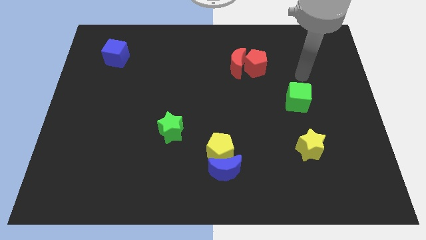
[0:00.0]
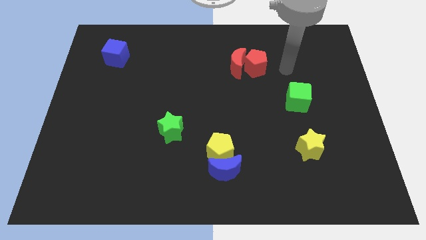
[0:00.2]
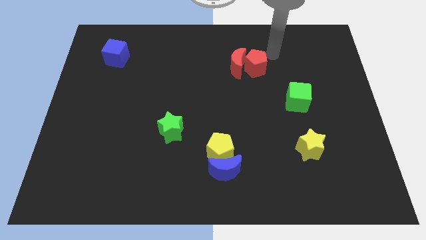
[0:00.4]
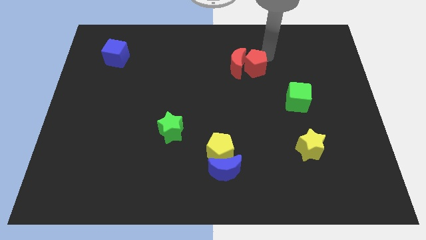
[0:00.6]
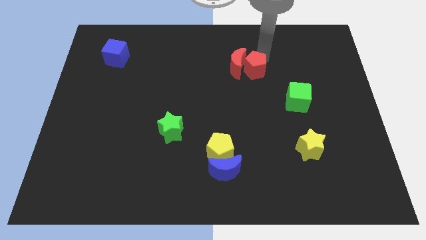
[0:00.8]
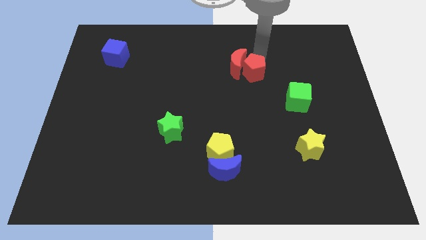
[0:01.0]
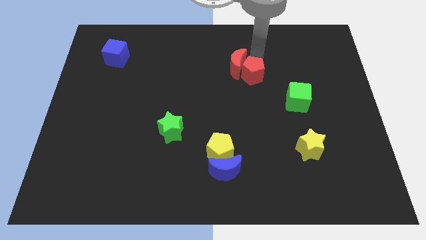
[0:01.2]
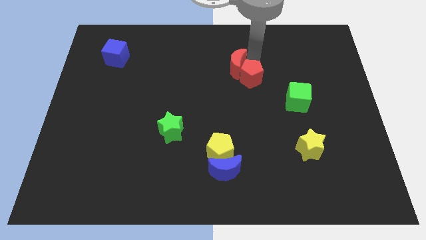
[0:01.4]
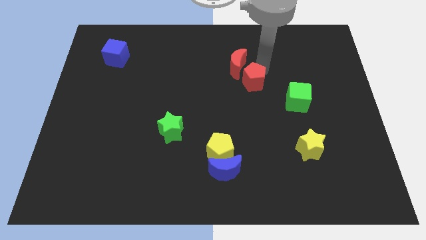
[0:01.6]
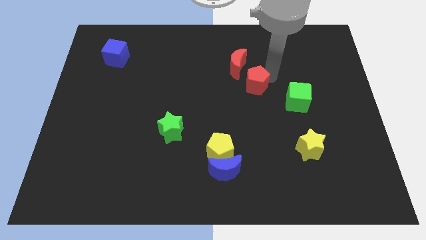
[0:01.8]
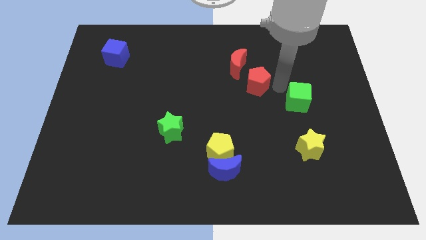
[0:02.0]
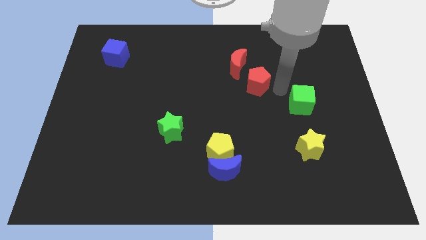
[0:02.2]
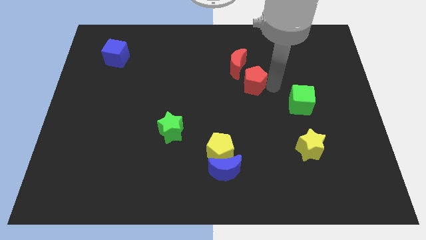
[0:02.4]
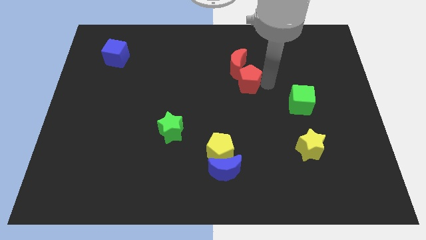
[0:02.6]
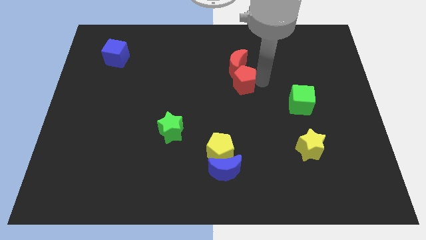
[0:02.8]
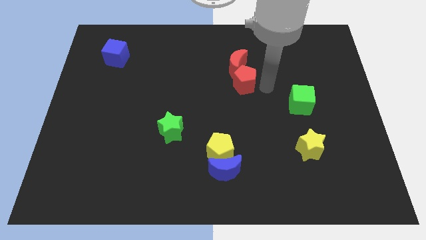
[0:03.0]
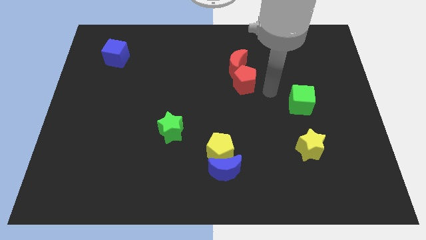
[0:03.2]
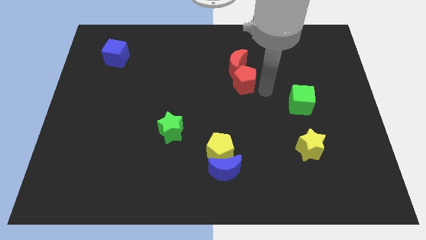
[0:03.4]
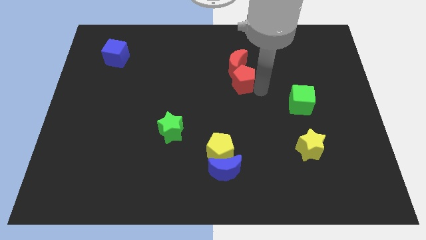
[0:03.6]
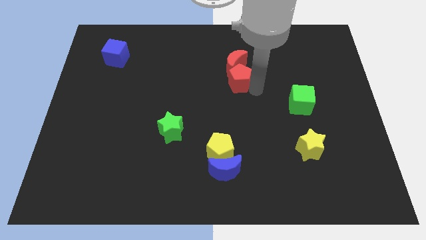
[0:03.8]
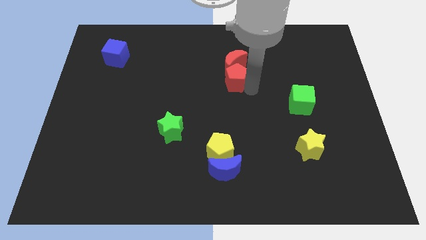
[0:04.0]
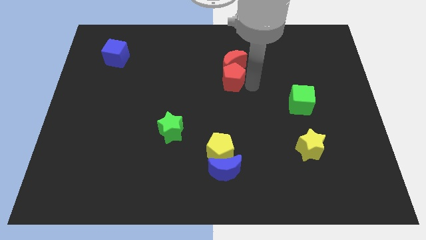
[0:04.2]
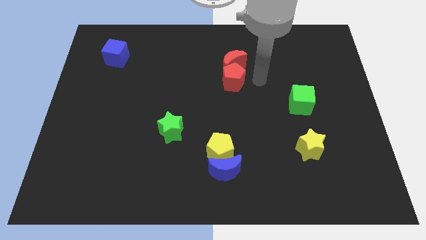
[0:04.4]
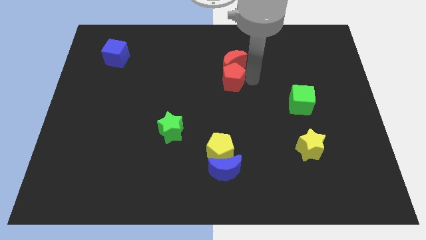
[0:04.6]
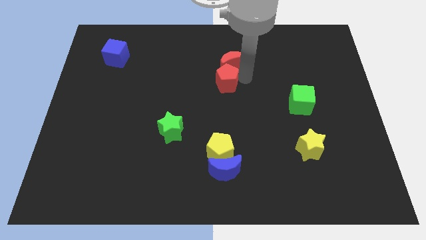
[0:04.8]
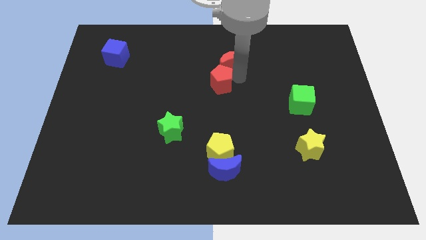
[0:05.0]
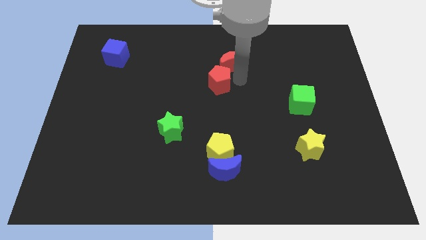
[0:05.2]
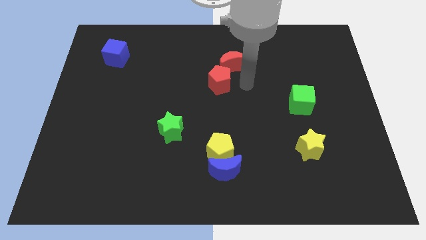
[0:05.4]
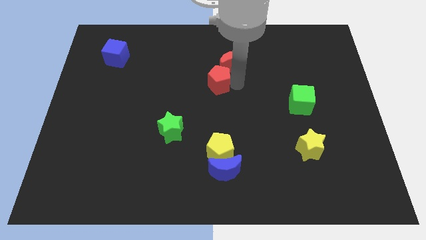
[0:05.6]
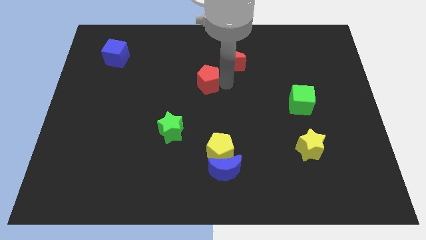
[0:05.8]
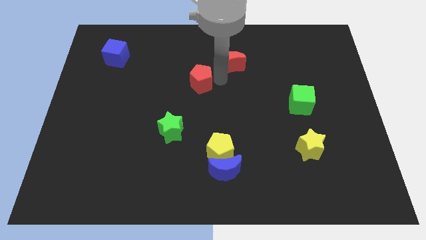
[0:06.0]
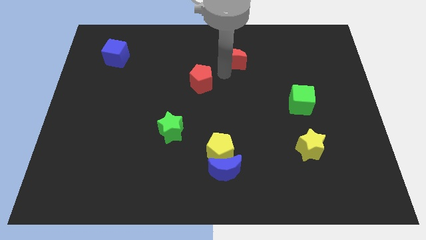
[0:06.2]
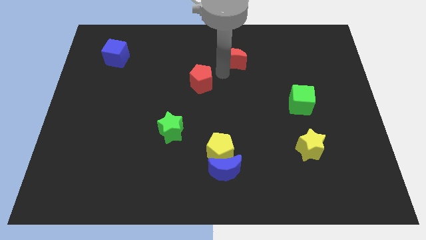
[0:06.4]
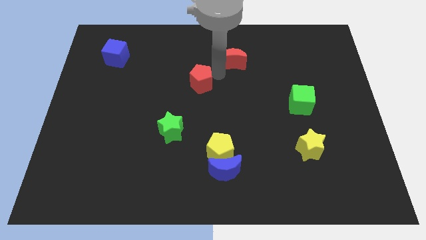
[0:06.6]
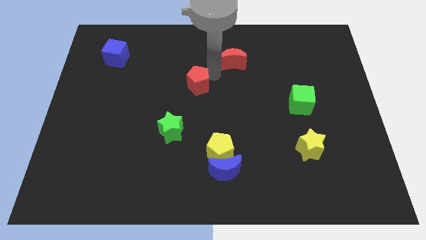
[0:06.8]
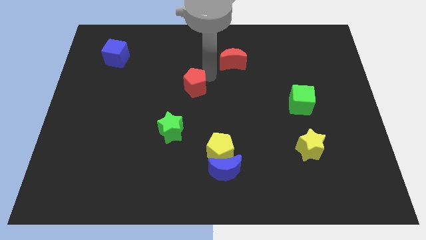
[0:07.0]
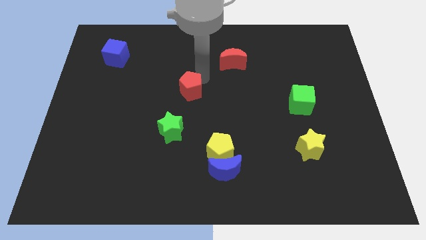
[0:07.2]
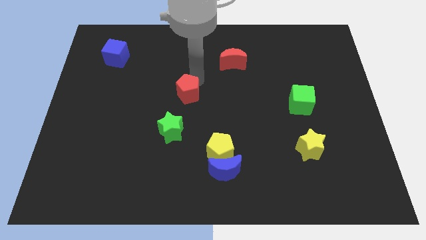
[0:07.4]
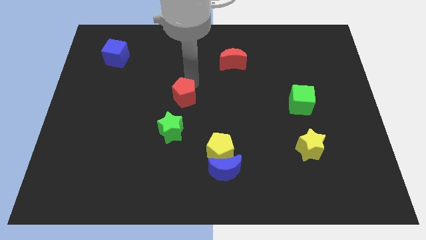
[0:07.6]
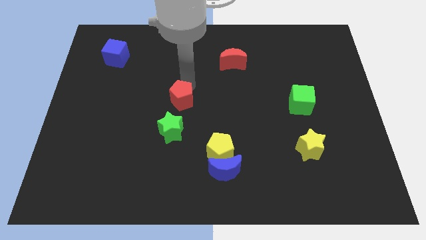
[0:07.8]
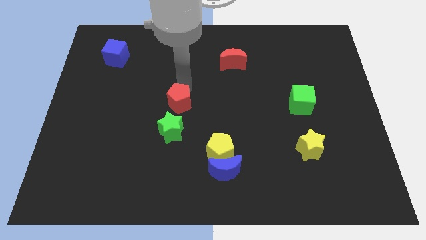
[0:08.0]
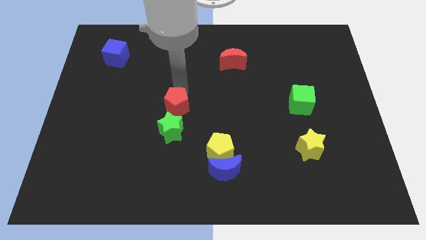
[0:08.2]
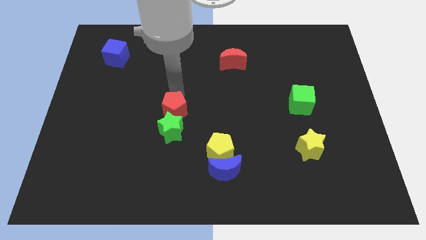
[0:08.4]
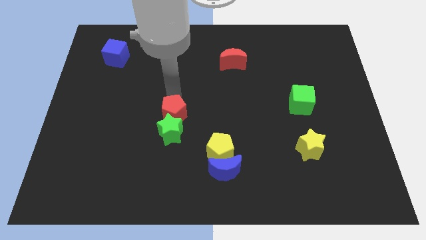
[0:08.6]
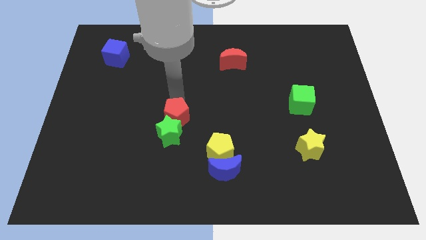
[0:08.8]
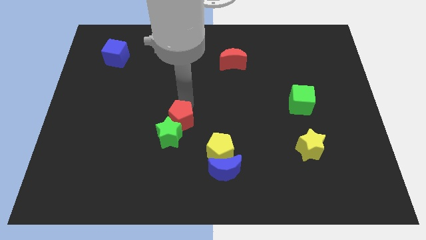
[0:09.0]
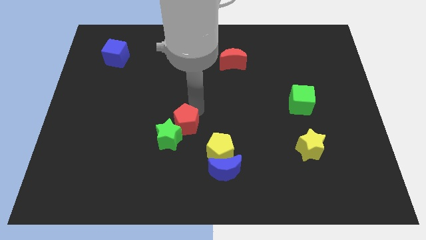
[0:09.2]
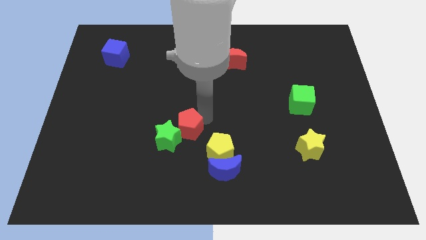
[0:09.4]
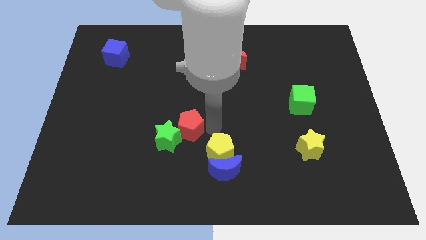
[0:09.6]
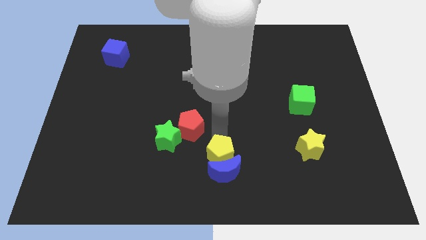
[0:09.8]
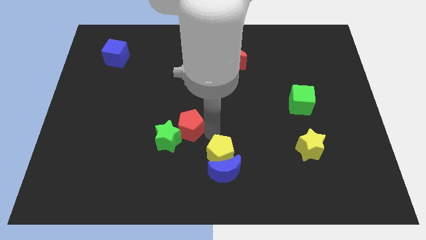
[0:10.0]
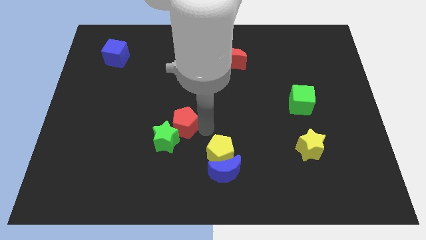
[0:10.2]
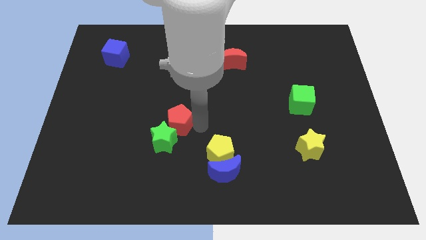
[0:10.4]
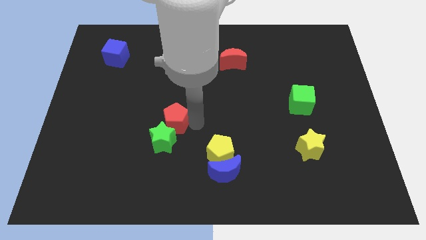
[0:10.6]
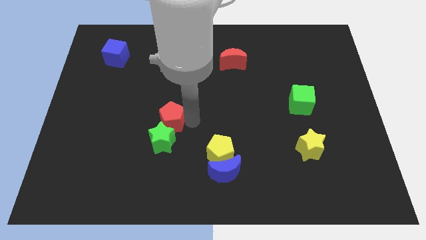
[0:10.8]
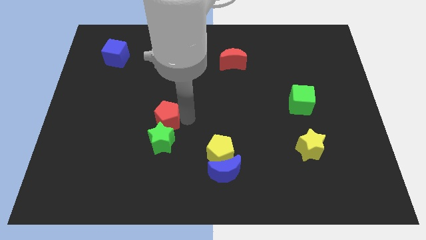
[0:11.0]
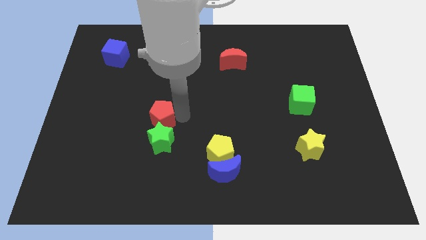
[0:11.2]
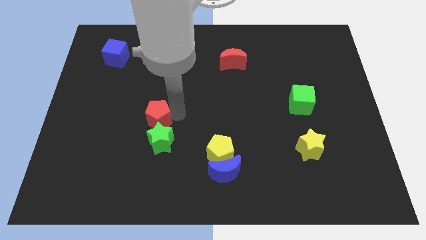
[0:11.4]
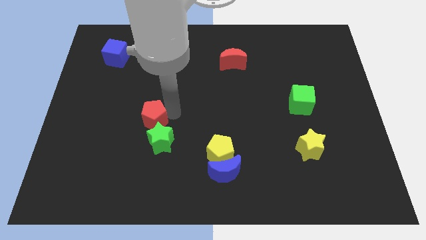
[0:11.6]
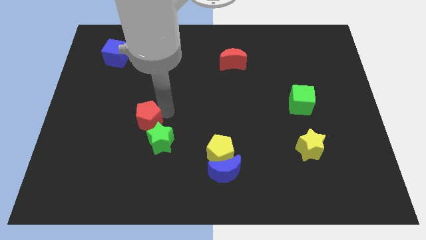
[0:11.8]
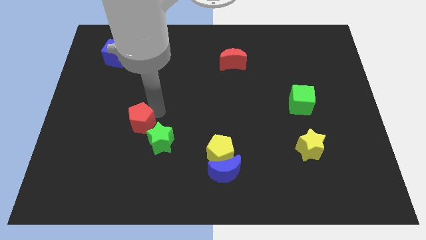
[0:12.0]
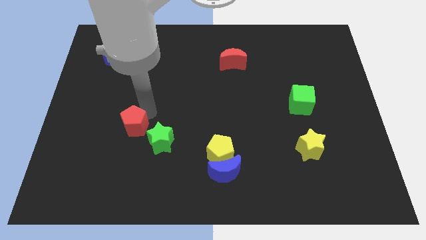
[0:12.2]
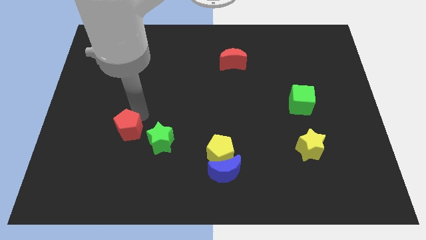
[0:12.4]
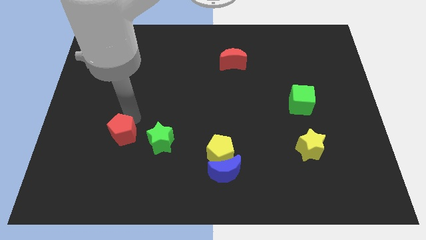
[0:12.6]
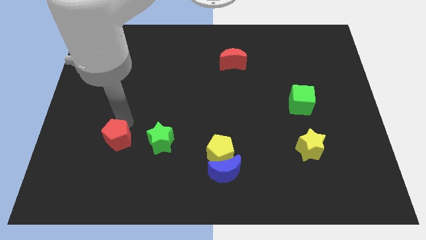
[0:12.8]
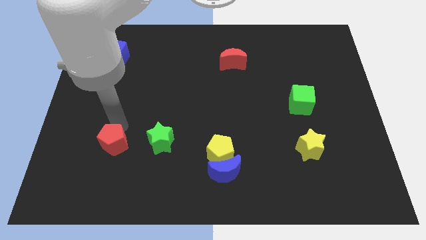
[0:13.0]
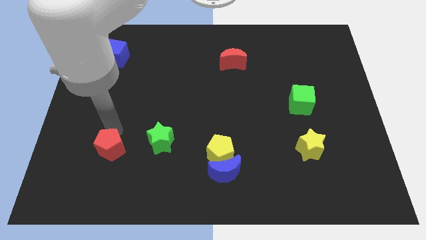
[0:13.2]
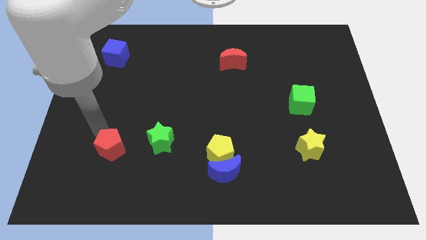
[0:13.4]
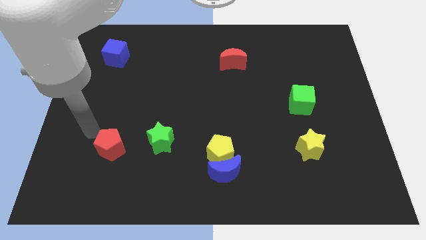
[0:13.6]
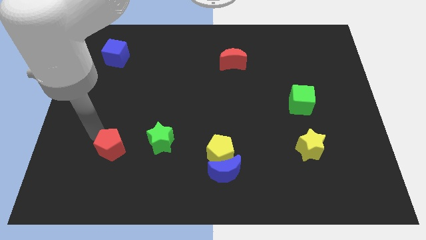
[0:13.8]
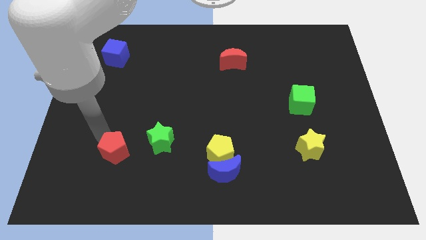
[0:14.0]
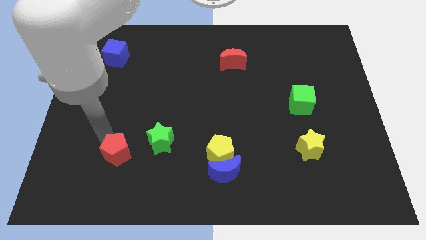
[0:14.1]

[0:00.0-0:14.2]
put the red pentagon to the bottom left of the green star
